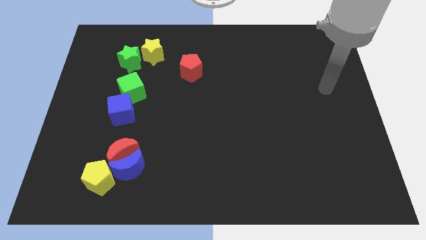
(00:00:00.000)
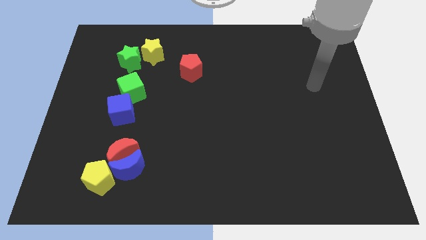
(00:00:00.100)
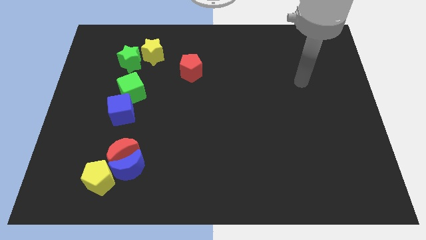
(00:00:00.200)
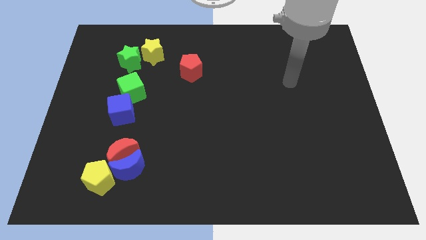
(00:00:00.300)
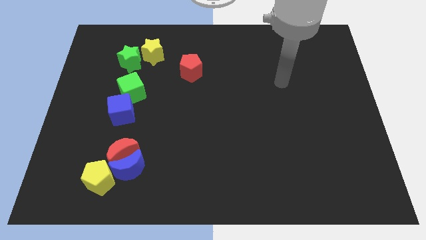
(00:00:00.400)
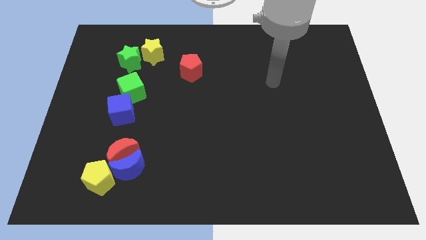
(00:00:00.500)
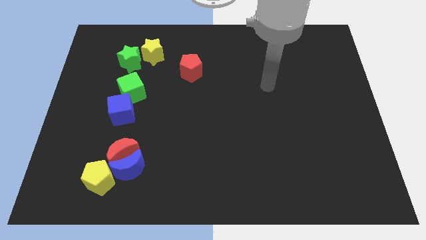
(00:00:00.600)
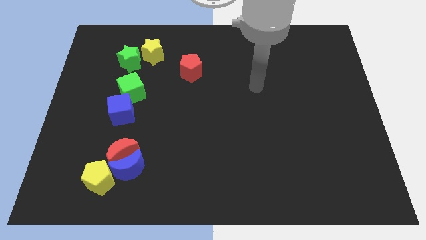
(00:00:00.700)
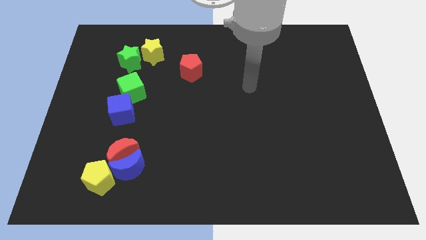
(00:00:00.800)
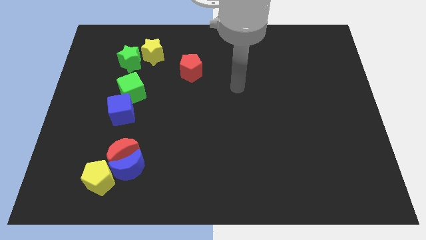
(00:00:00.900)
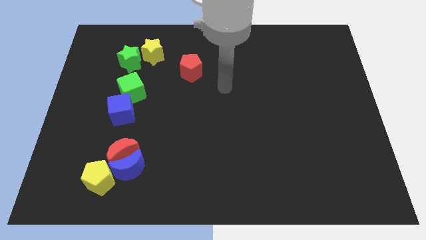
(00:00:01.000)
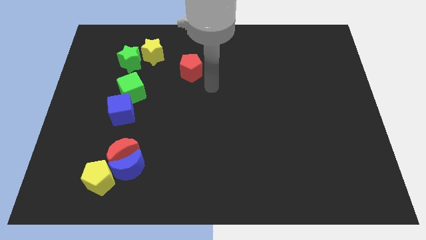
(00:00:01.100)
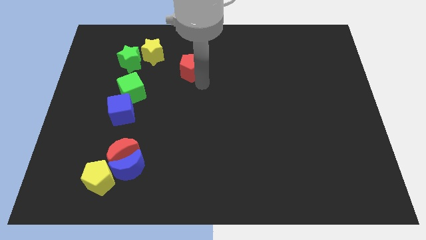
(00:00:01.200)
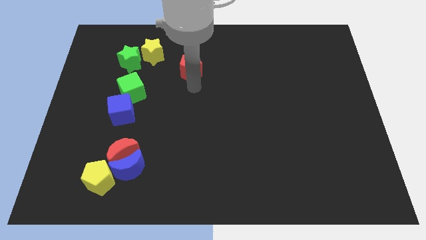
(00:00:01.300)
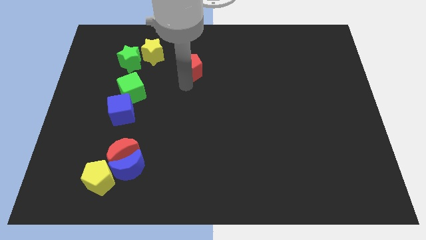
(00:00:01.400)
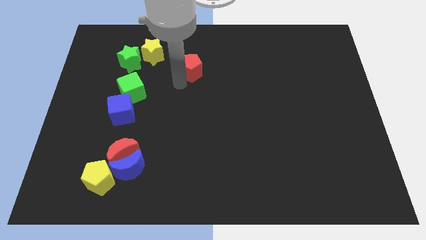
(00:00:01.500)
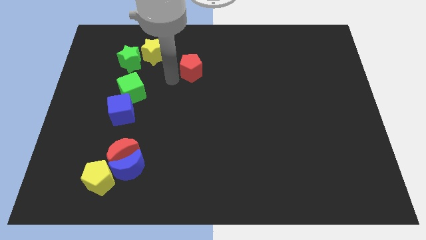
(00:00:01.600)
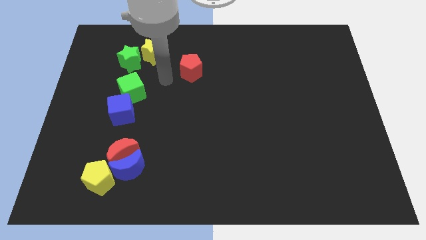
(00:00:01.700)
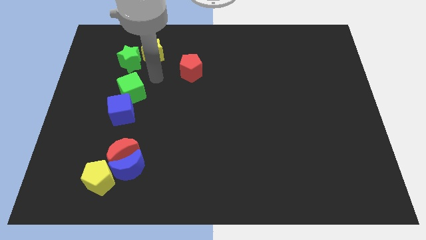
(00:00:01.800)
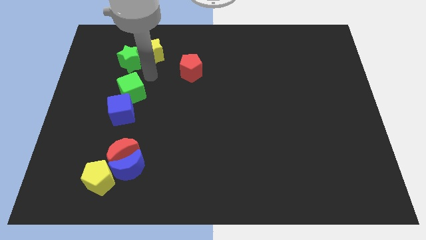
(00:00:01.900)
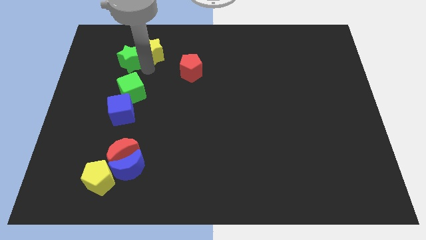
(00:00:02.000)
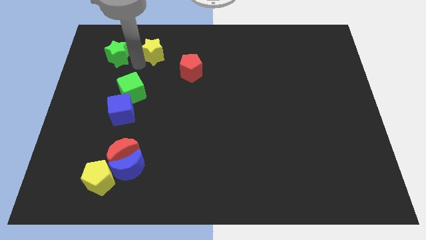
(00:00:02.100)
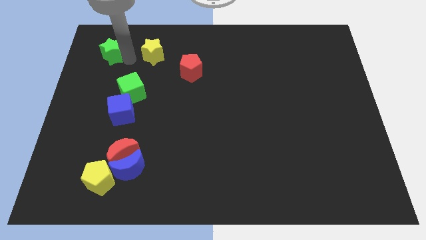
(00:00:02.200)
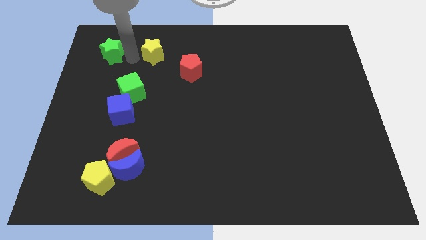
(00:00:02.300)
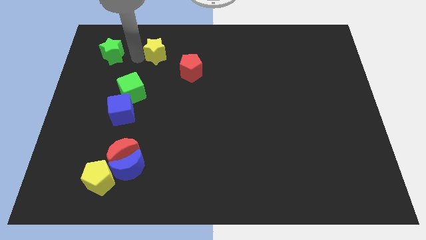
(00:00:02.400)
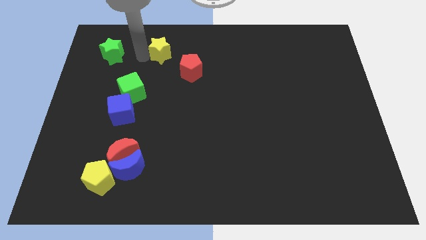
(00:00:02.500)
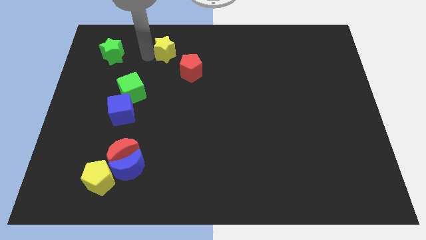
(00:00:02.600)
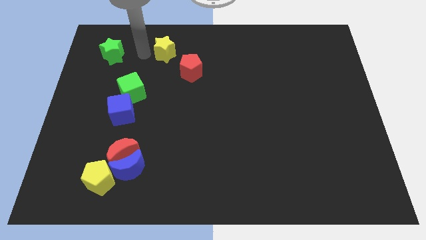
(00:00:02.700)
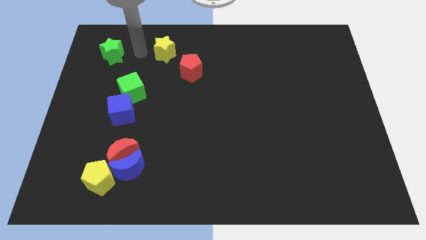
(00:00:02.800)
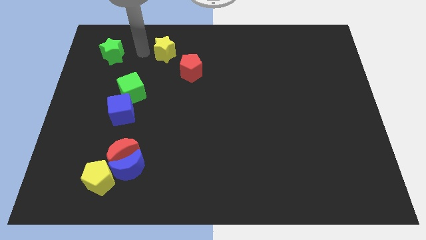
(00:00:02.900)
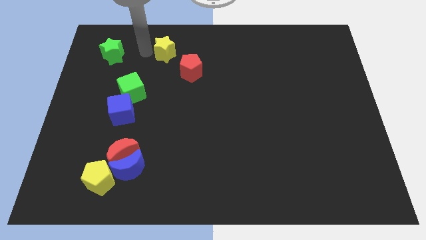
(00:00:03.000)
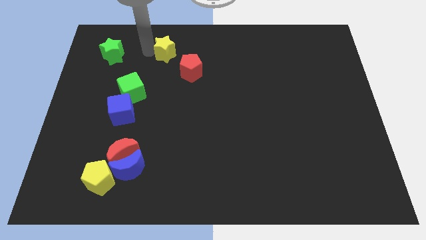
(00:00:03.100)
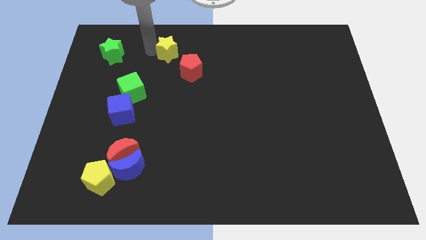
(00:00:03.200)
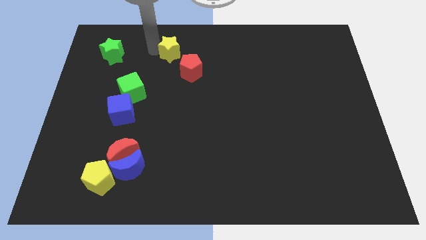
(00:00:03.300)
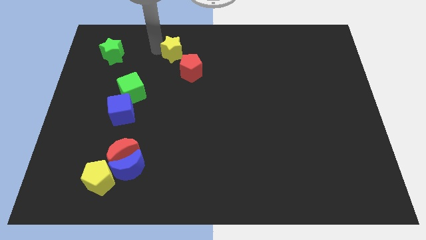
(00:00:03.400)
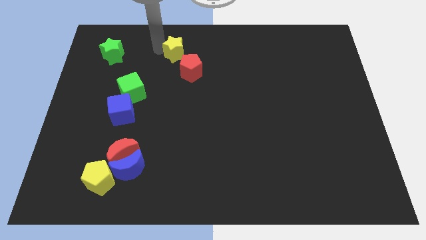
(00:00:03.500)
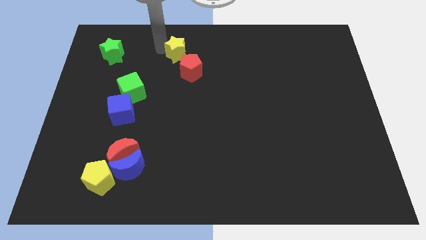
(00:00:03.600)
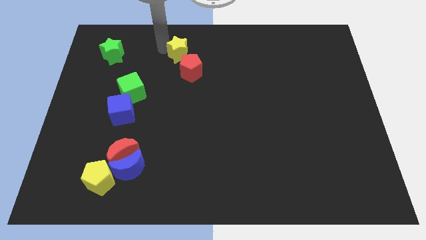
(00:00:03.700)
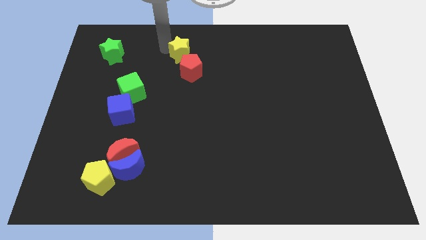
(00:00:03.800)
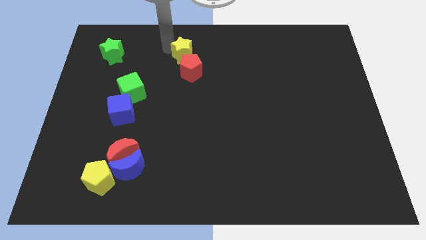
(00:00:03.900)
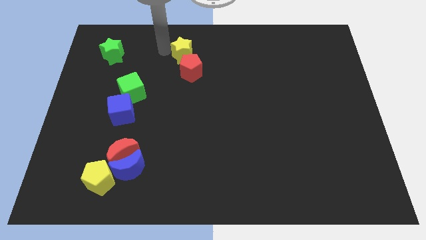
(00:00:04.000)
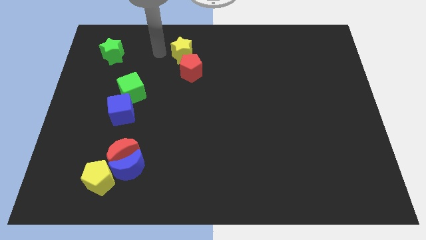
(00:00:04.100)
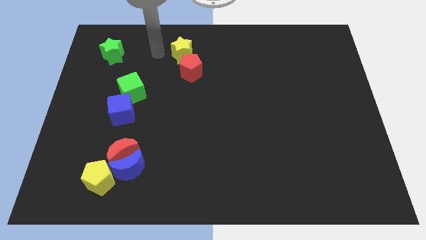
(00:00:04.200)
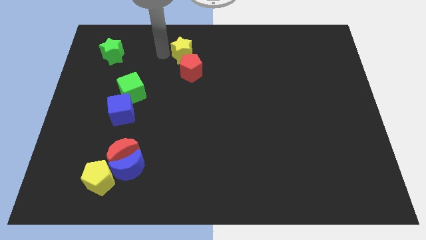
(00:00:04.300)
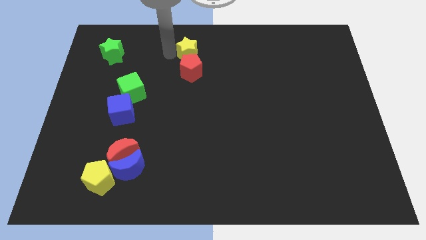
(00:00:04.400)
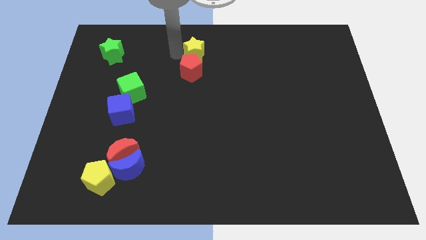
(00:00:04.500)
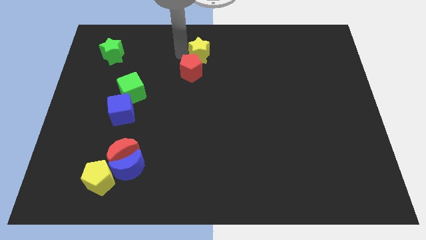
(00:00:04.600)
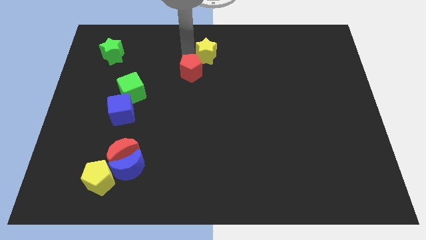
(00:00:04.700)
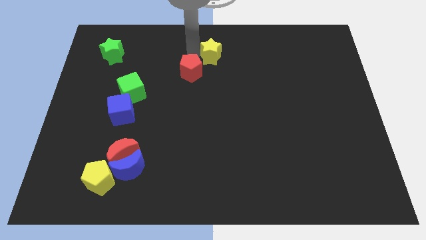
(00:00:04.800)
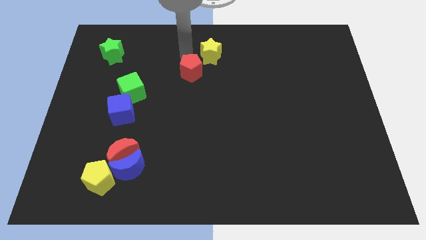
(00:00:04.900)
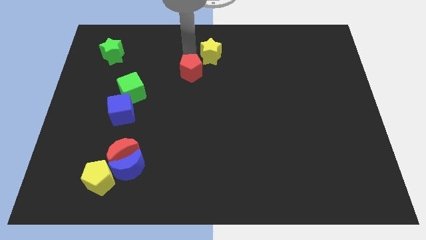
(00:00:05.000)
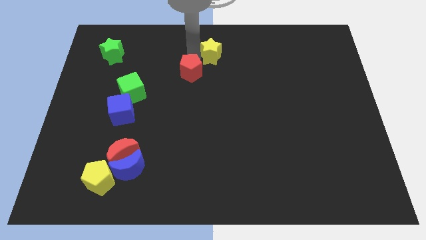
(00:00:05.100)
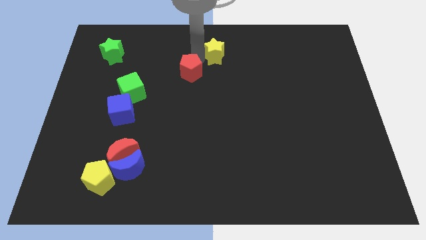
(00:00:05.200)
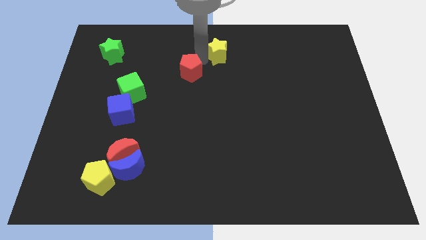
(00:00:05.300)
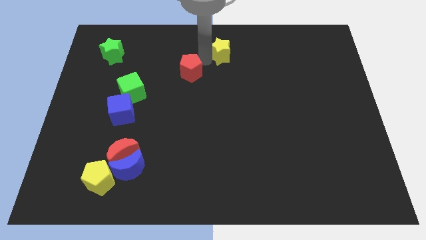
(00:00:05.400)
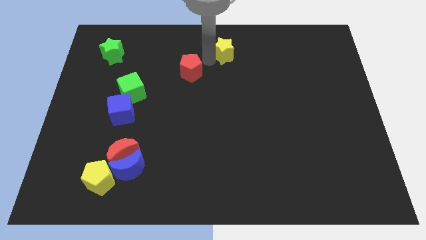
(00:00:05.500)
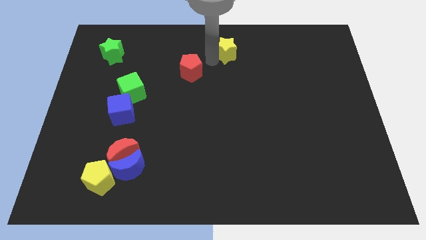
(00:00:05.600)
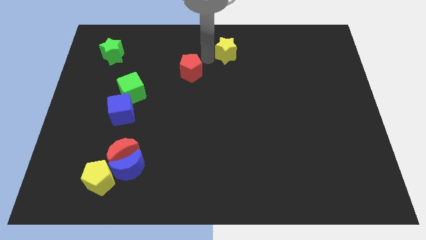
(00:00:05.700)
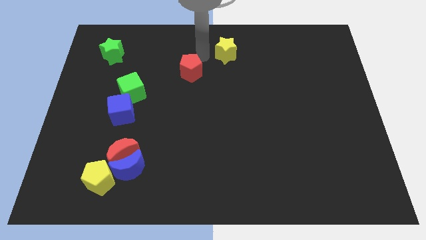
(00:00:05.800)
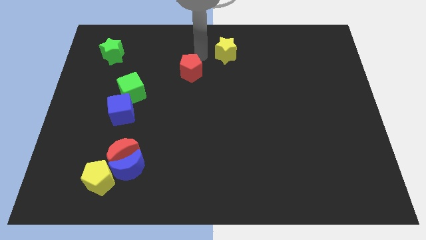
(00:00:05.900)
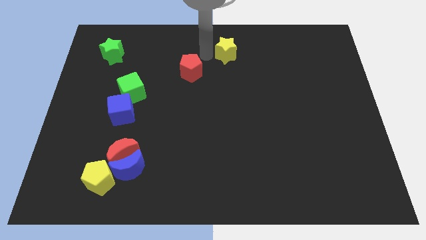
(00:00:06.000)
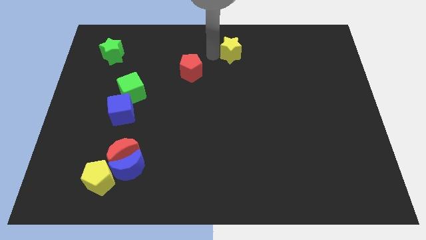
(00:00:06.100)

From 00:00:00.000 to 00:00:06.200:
push the yellow star to the right

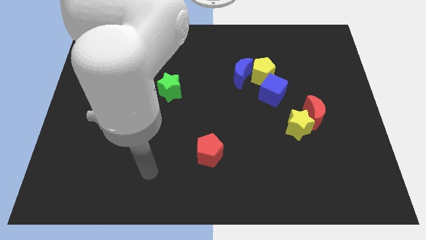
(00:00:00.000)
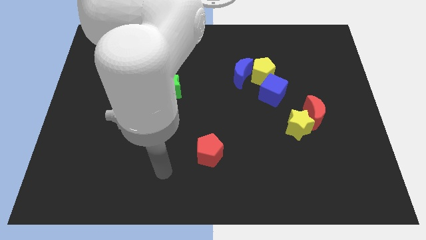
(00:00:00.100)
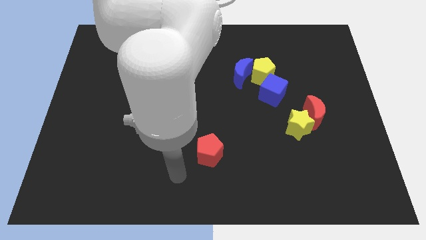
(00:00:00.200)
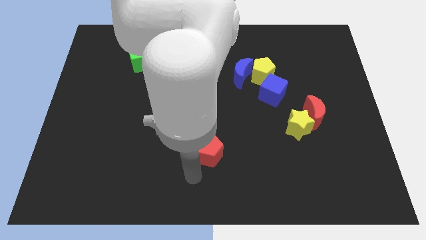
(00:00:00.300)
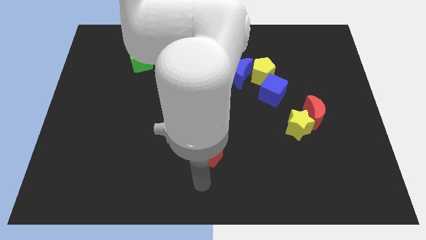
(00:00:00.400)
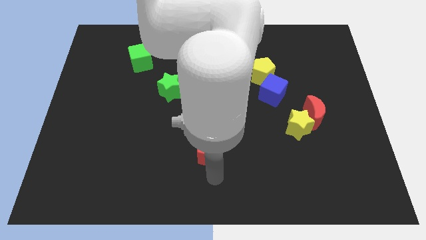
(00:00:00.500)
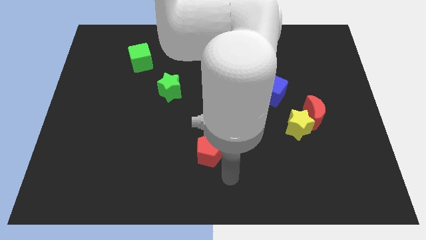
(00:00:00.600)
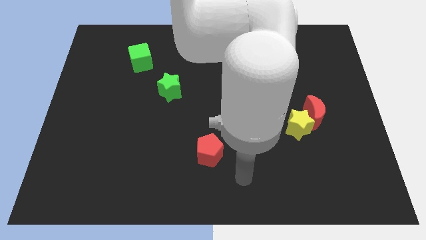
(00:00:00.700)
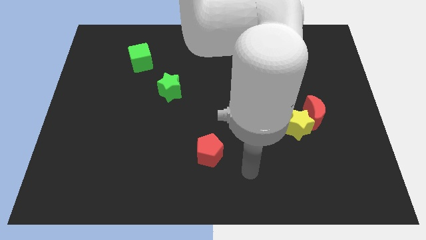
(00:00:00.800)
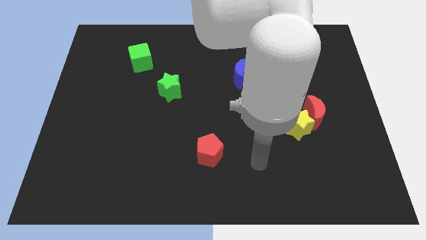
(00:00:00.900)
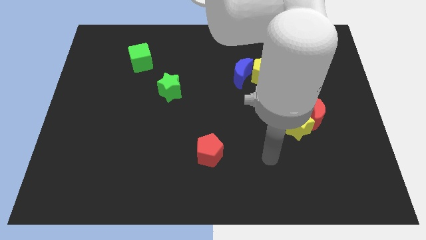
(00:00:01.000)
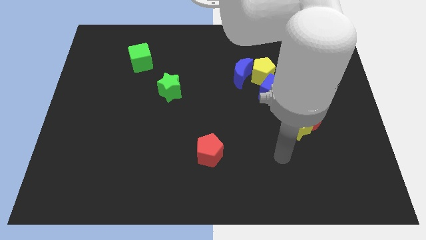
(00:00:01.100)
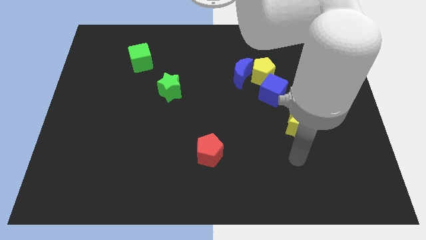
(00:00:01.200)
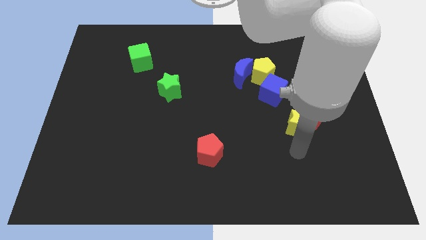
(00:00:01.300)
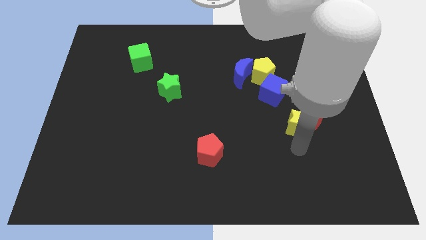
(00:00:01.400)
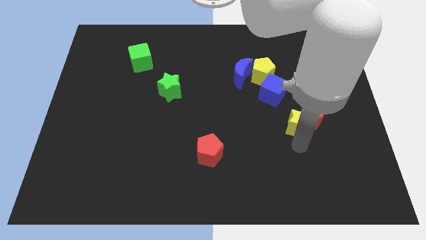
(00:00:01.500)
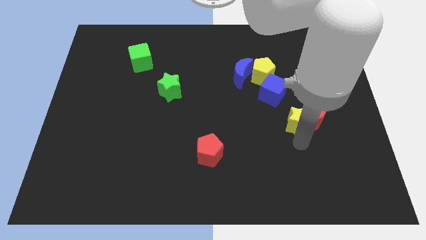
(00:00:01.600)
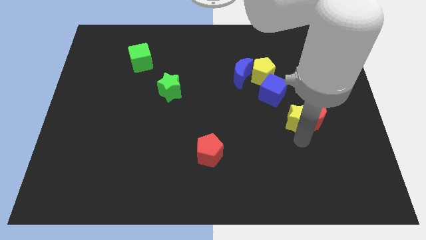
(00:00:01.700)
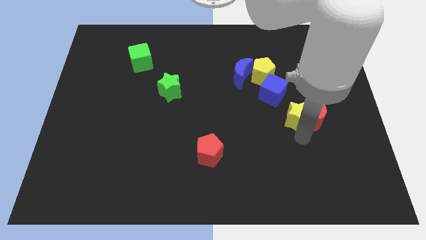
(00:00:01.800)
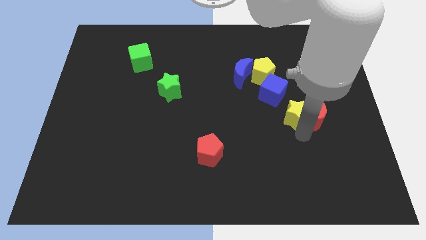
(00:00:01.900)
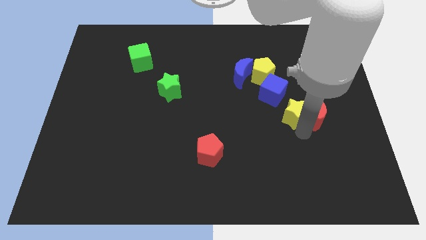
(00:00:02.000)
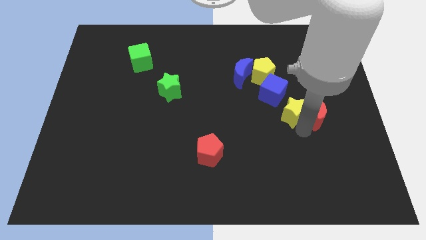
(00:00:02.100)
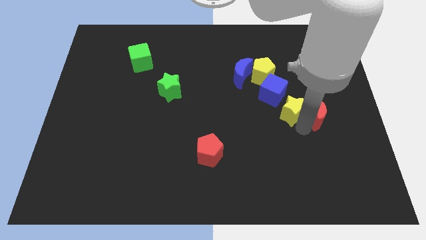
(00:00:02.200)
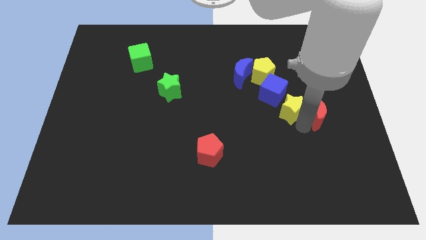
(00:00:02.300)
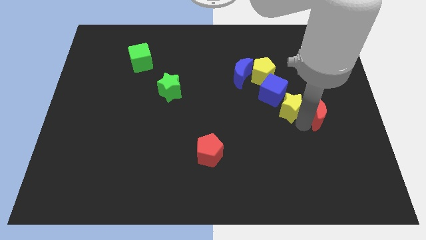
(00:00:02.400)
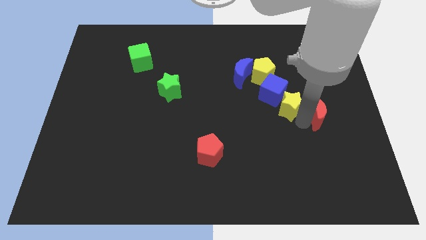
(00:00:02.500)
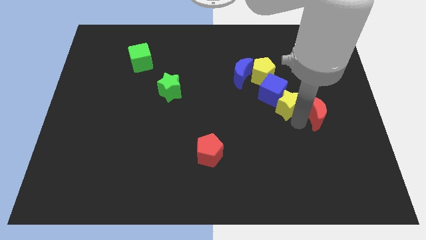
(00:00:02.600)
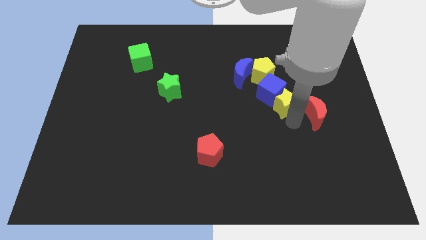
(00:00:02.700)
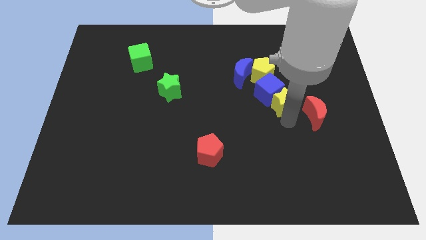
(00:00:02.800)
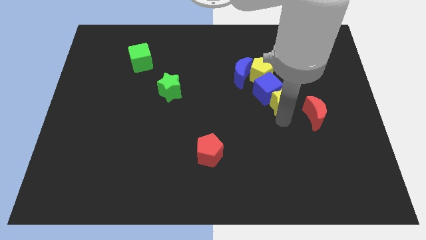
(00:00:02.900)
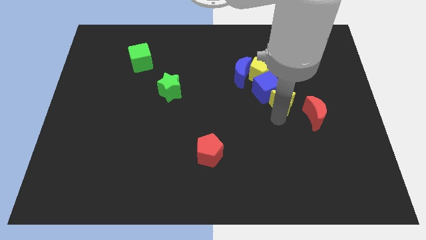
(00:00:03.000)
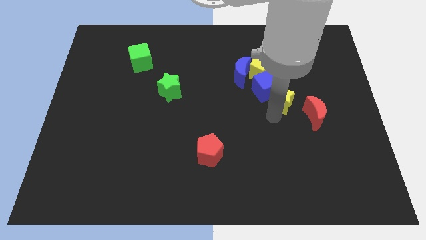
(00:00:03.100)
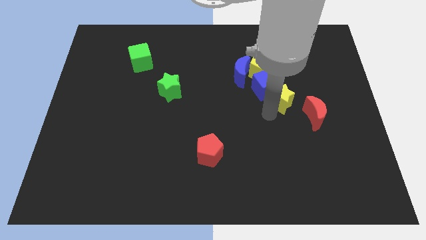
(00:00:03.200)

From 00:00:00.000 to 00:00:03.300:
push the yellow star a little up
